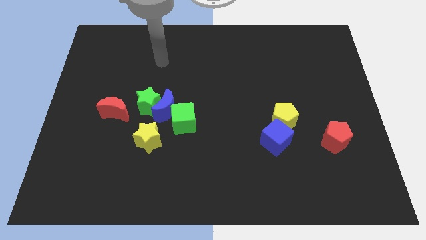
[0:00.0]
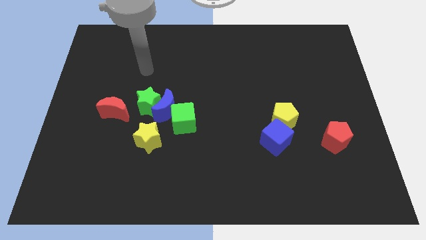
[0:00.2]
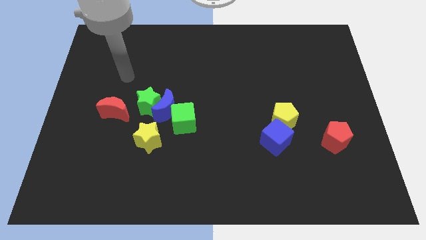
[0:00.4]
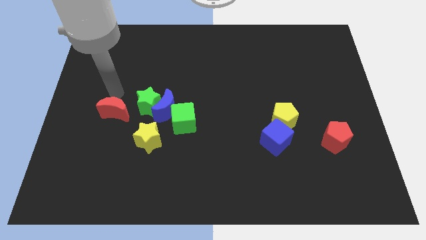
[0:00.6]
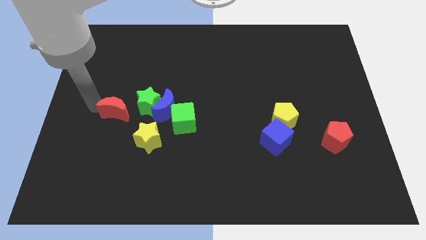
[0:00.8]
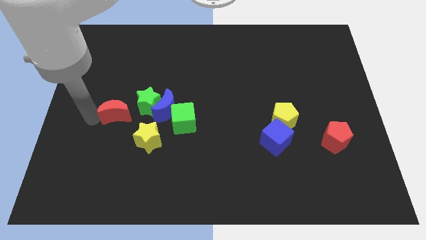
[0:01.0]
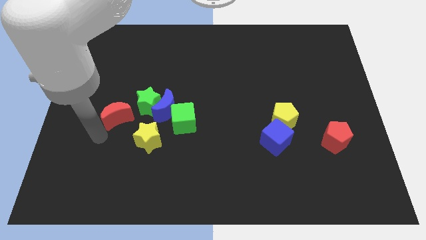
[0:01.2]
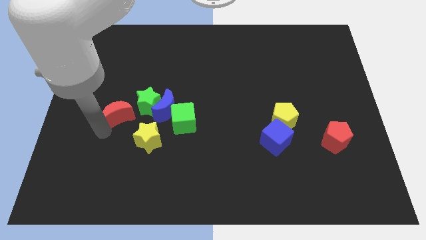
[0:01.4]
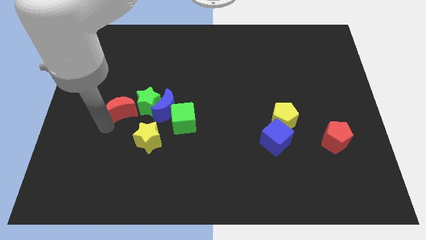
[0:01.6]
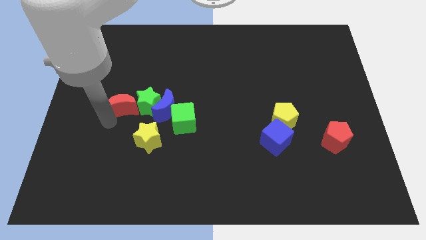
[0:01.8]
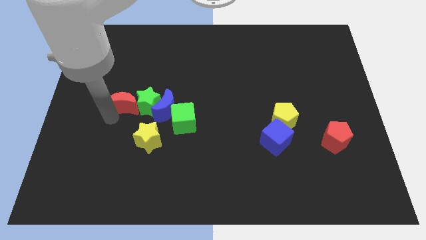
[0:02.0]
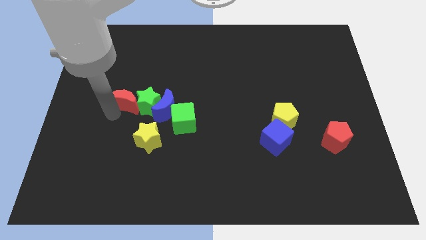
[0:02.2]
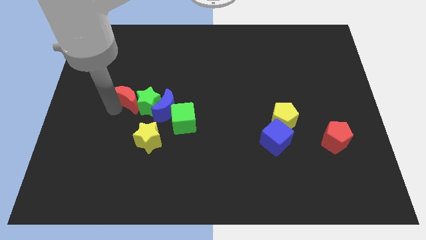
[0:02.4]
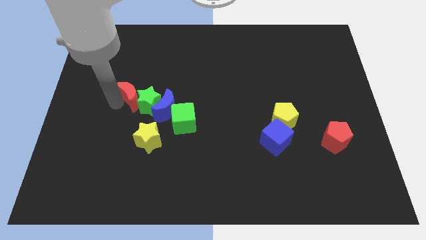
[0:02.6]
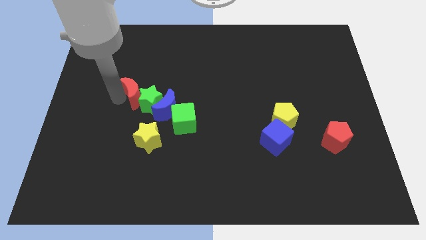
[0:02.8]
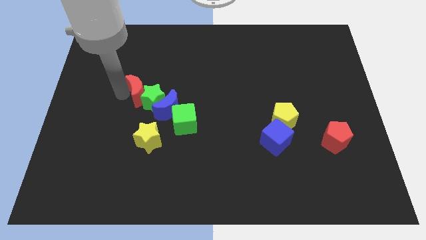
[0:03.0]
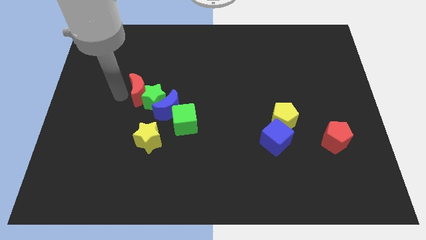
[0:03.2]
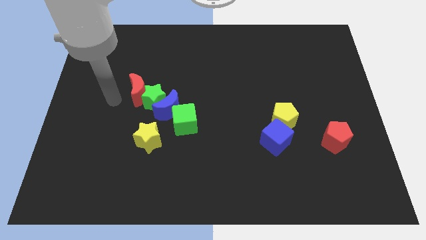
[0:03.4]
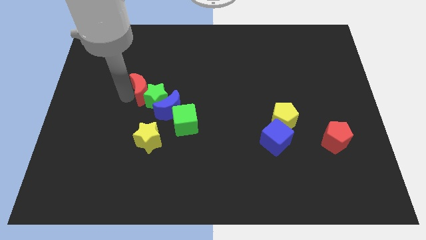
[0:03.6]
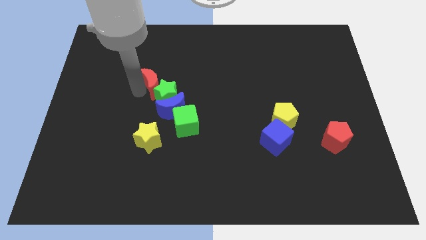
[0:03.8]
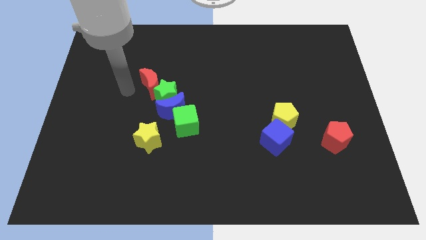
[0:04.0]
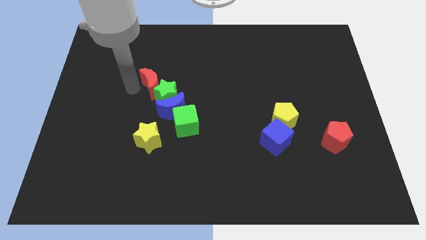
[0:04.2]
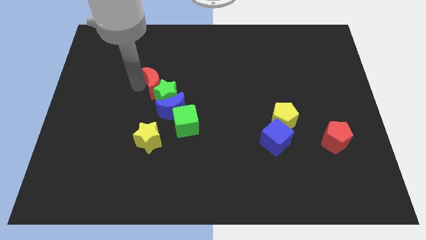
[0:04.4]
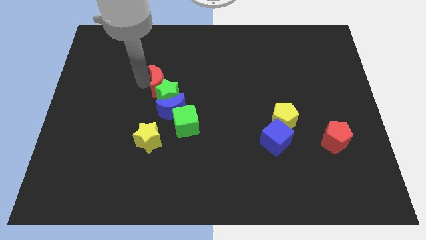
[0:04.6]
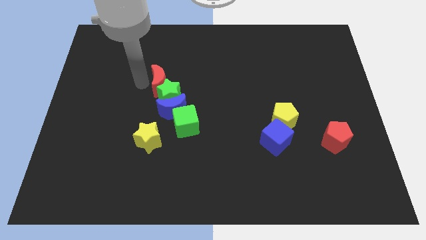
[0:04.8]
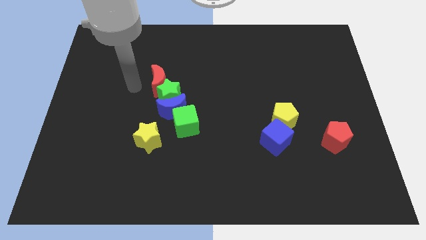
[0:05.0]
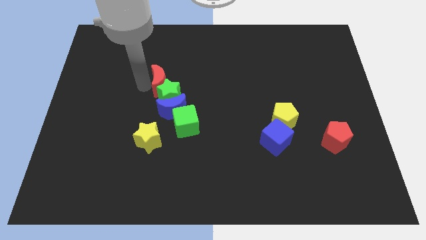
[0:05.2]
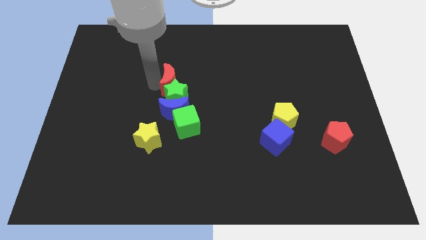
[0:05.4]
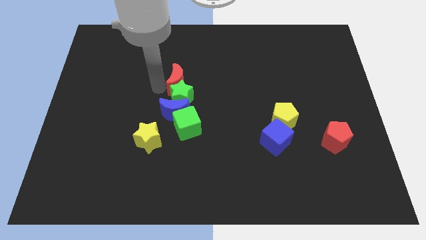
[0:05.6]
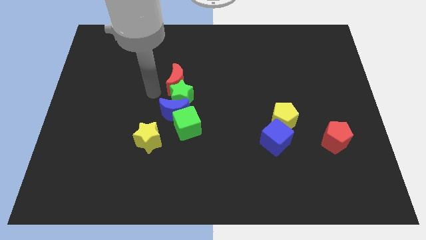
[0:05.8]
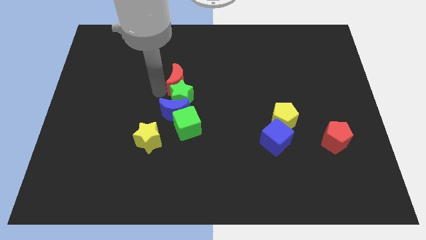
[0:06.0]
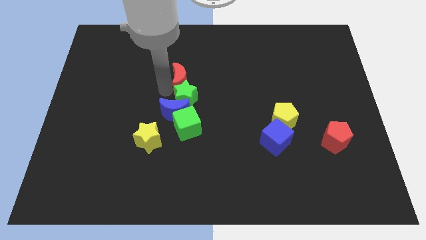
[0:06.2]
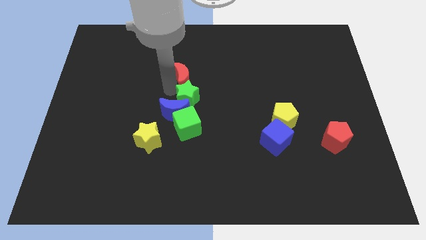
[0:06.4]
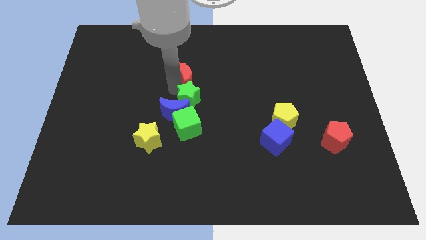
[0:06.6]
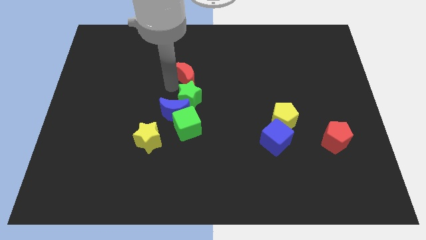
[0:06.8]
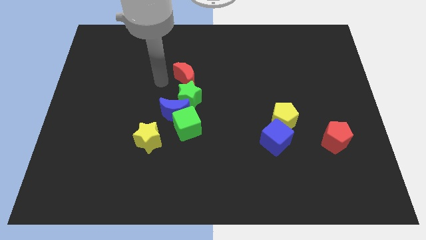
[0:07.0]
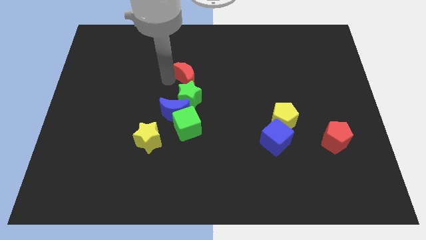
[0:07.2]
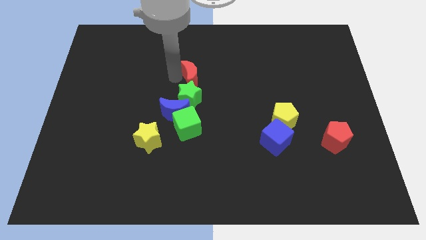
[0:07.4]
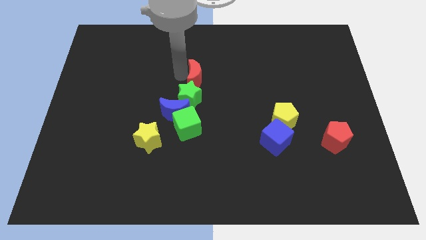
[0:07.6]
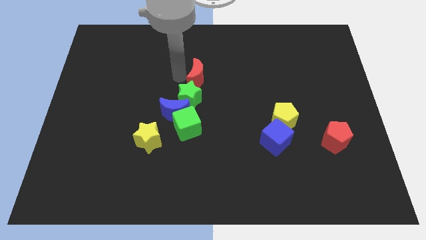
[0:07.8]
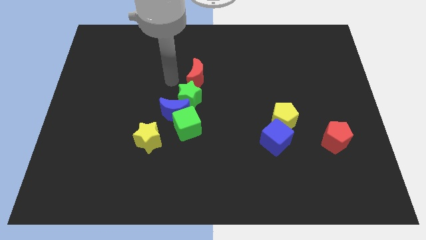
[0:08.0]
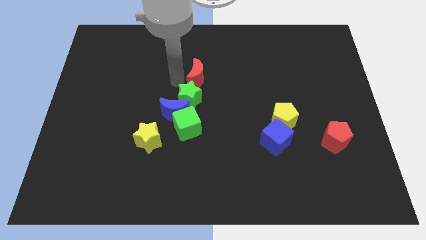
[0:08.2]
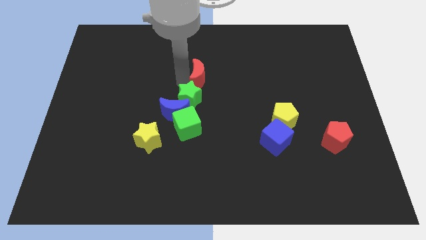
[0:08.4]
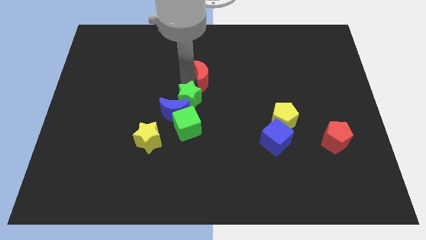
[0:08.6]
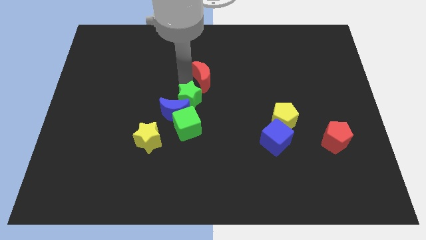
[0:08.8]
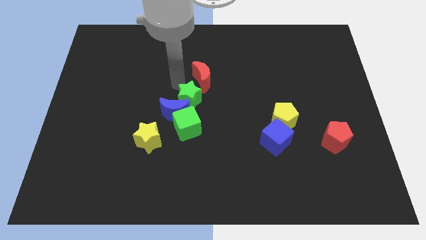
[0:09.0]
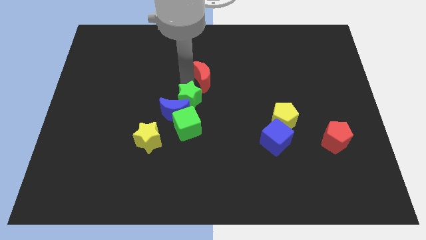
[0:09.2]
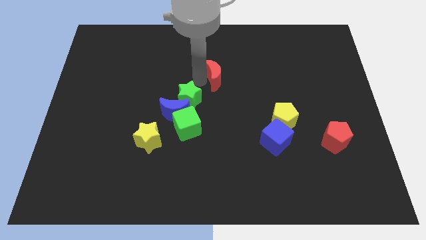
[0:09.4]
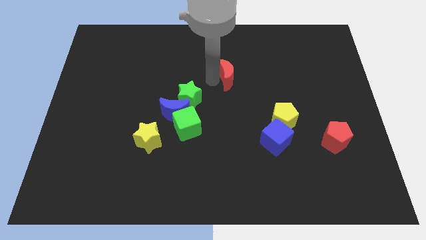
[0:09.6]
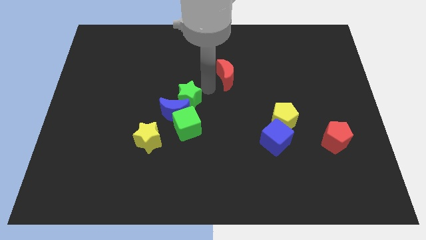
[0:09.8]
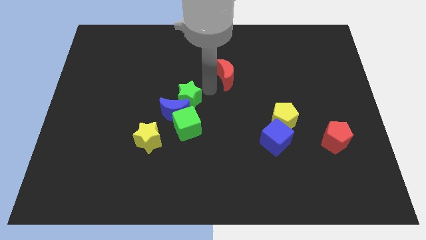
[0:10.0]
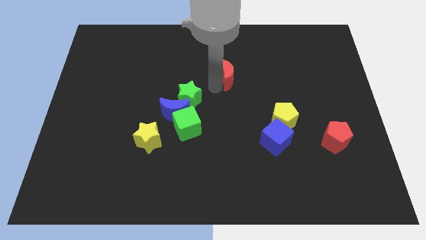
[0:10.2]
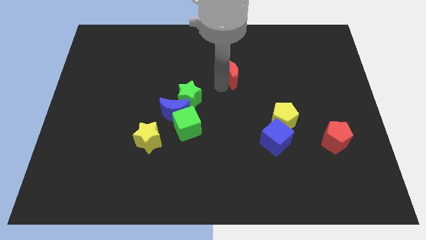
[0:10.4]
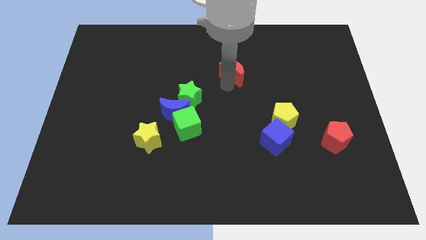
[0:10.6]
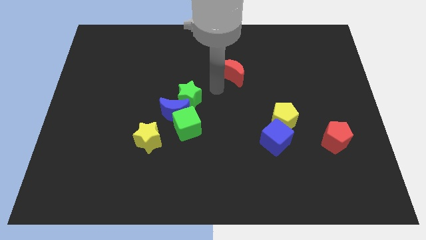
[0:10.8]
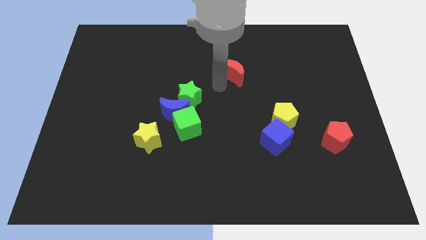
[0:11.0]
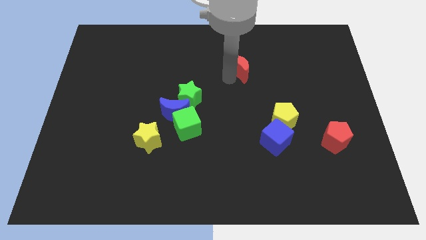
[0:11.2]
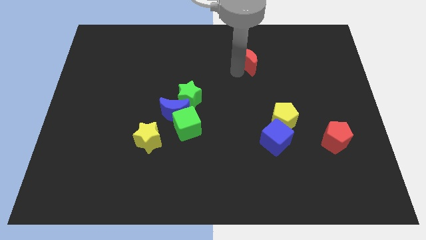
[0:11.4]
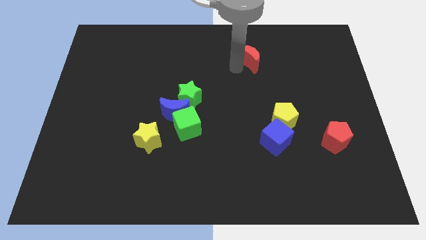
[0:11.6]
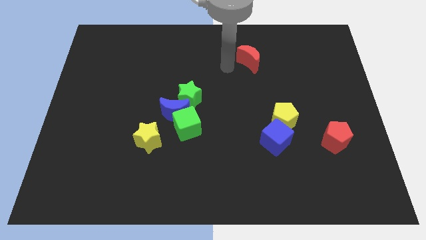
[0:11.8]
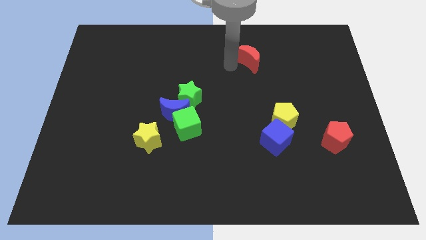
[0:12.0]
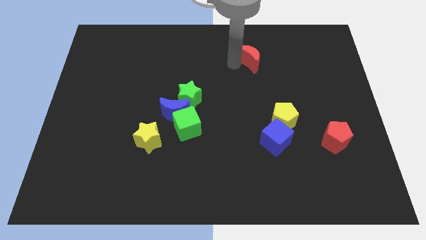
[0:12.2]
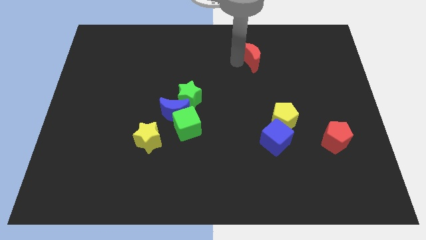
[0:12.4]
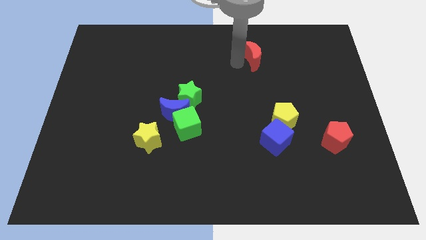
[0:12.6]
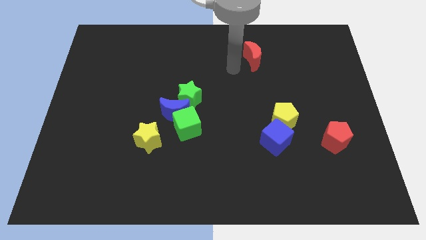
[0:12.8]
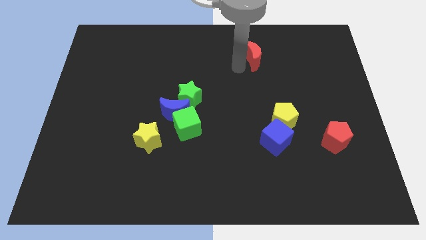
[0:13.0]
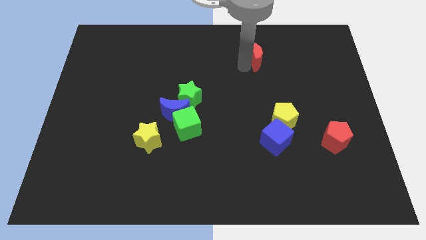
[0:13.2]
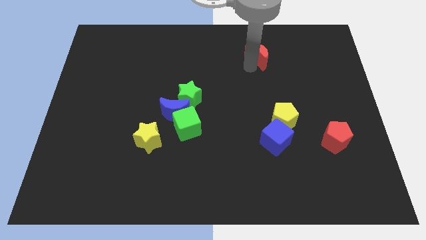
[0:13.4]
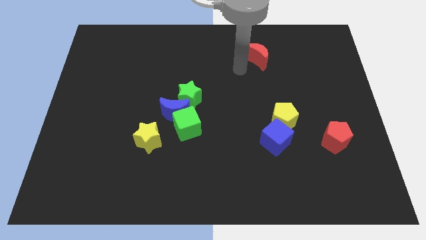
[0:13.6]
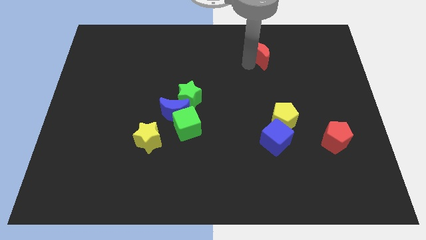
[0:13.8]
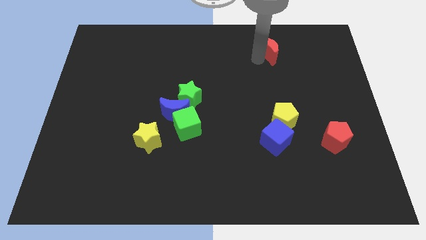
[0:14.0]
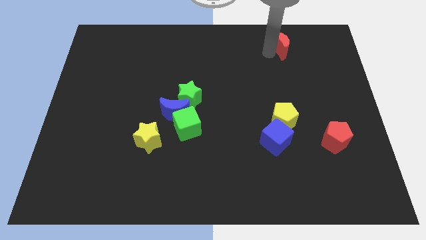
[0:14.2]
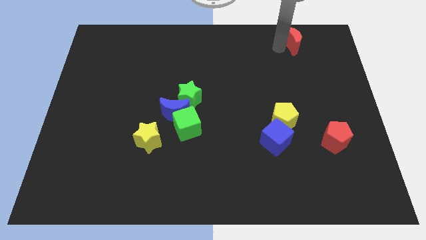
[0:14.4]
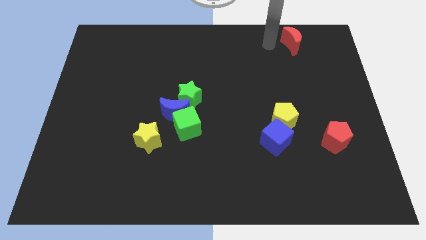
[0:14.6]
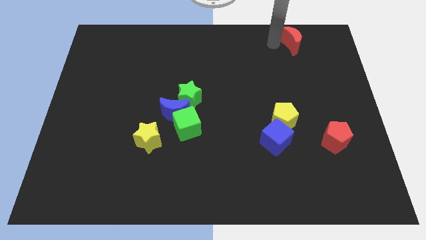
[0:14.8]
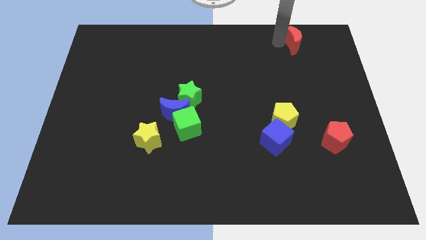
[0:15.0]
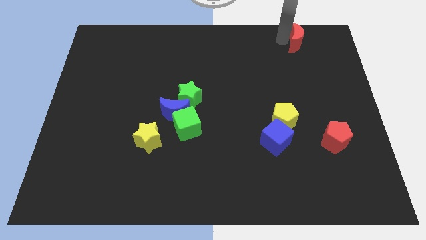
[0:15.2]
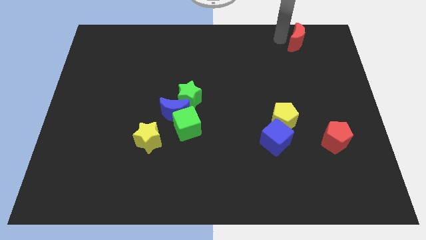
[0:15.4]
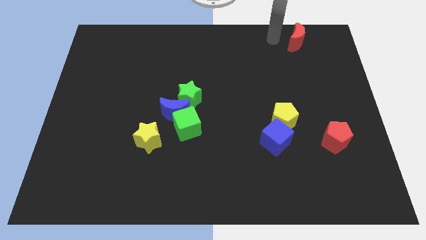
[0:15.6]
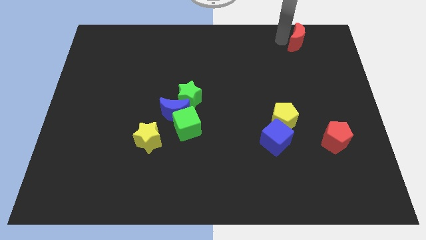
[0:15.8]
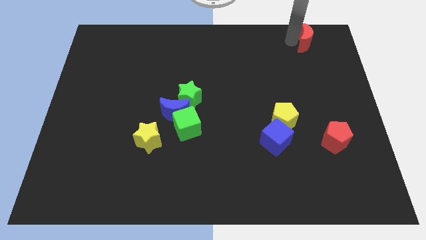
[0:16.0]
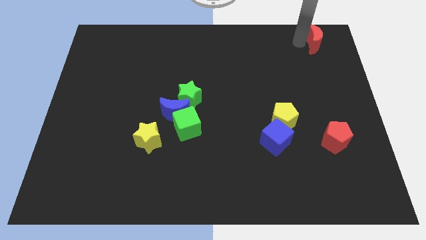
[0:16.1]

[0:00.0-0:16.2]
slide the red moon to the upper right corner
